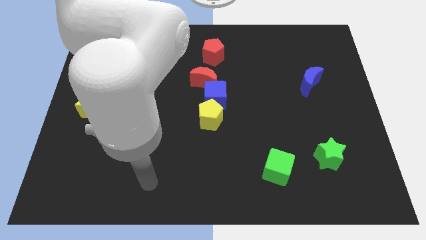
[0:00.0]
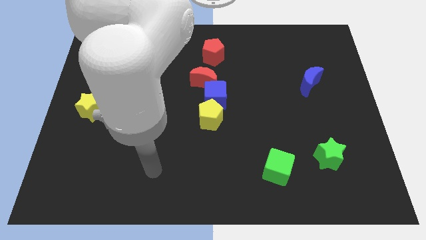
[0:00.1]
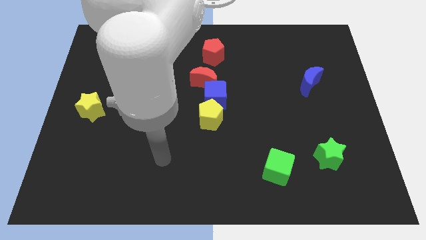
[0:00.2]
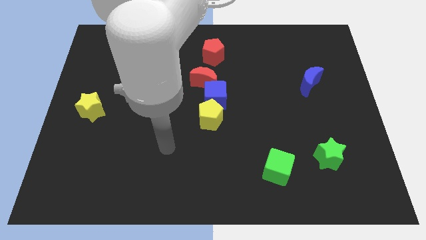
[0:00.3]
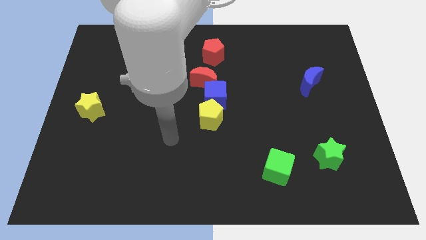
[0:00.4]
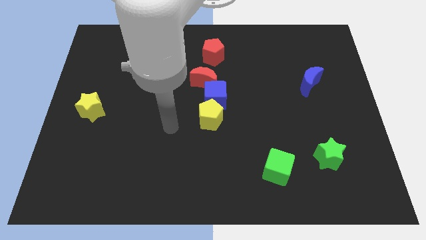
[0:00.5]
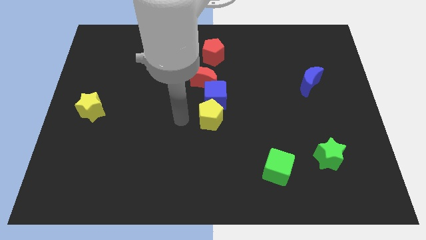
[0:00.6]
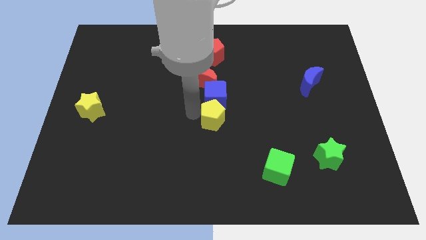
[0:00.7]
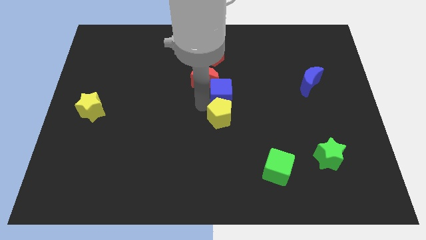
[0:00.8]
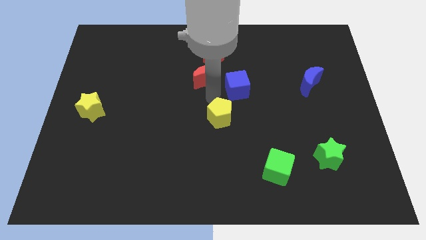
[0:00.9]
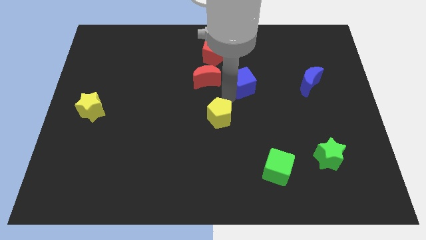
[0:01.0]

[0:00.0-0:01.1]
separate the yellow pentagon from the blue cube

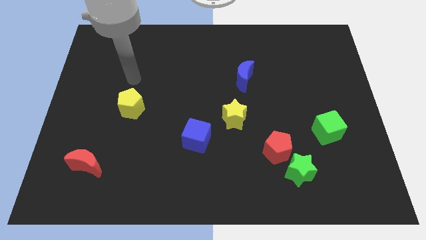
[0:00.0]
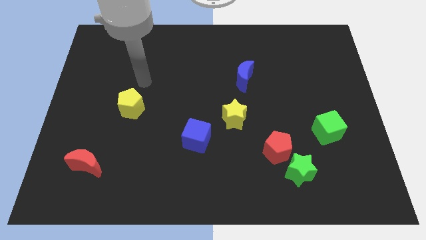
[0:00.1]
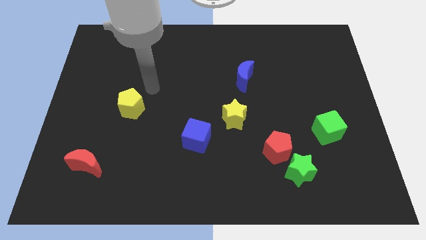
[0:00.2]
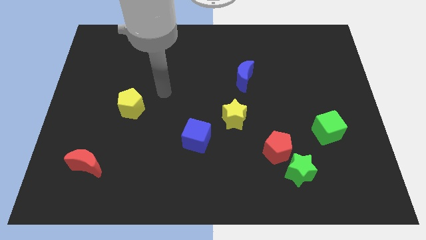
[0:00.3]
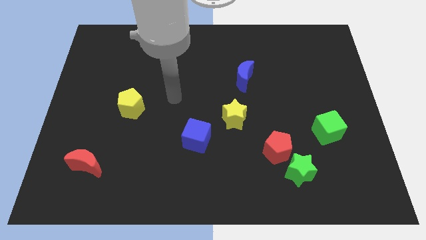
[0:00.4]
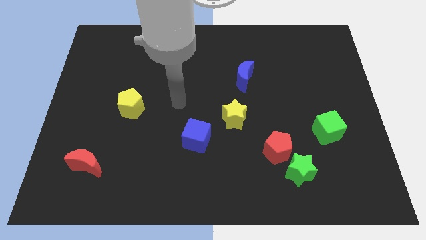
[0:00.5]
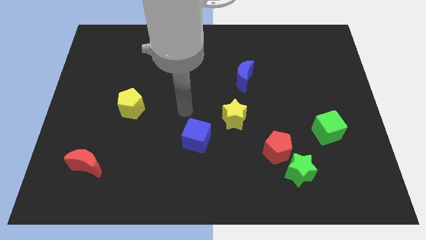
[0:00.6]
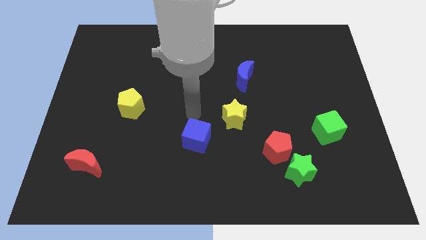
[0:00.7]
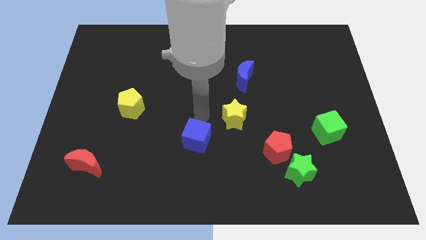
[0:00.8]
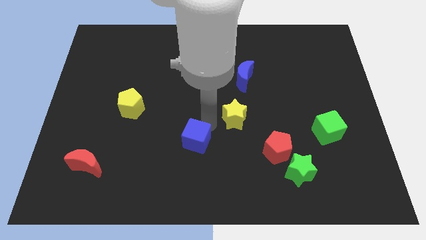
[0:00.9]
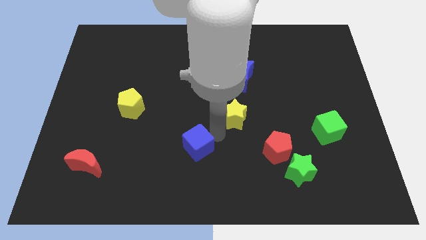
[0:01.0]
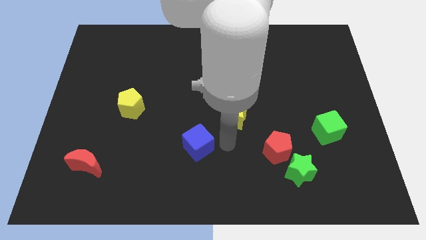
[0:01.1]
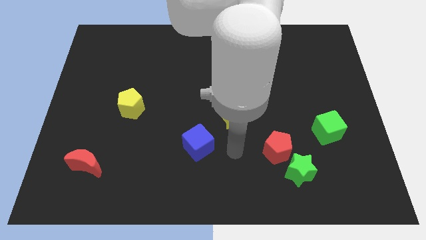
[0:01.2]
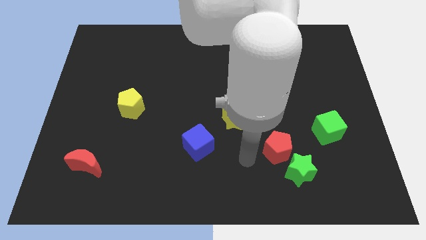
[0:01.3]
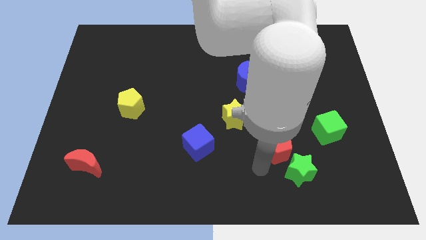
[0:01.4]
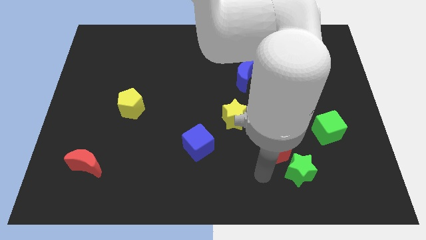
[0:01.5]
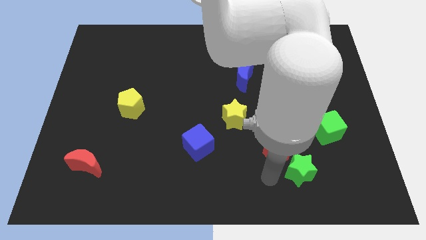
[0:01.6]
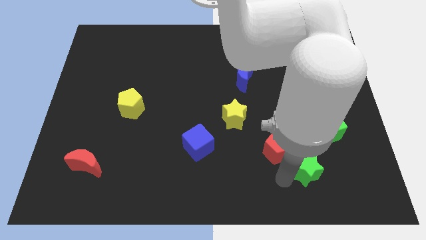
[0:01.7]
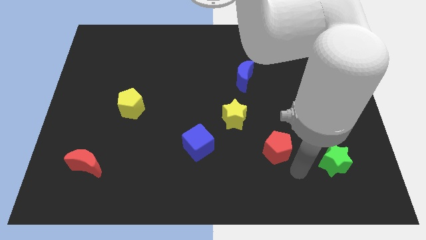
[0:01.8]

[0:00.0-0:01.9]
separate the red pentagon from the green star

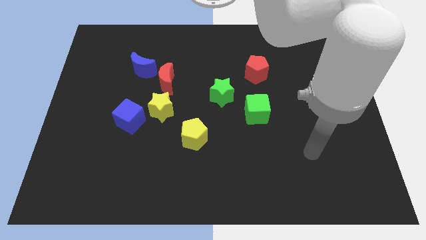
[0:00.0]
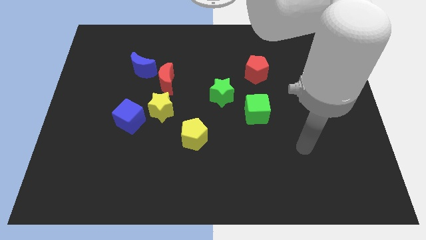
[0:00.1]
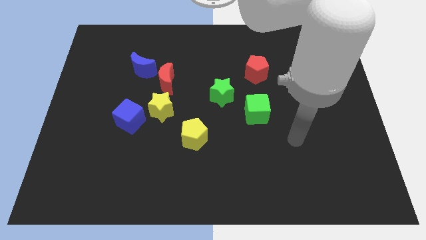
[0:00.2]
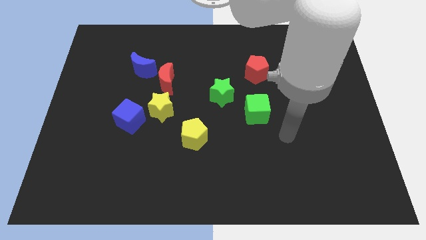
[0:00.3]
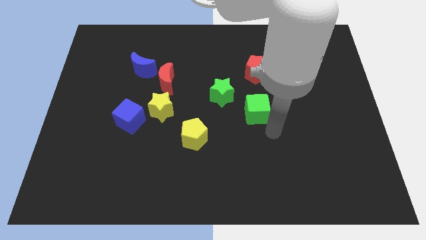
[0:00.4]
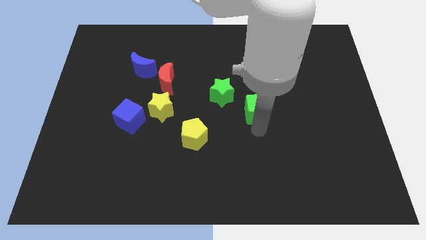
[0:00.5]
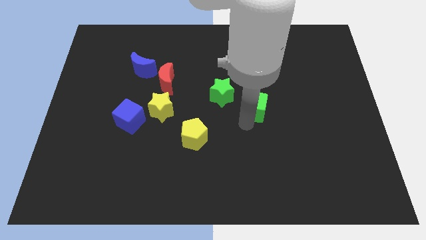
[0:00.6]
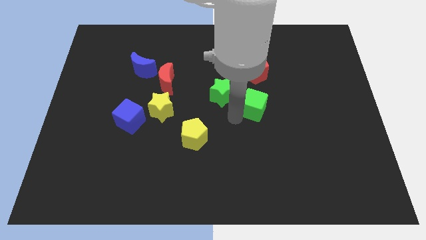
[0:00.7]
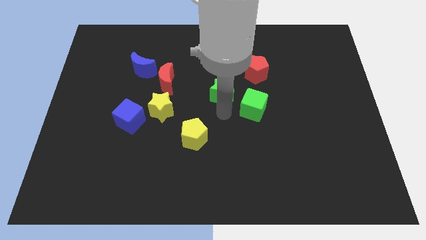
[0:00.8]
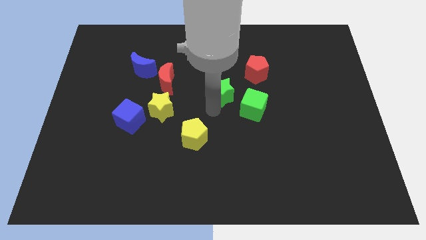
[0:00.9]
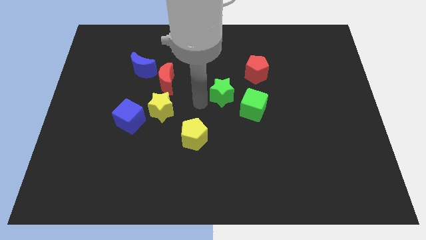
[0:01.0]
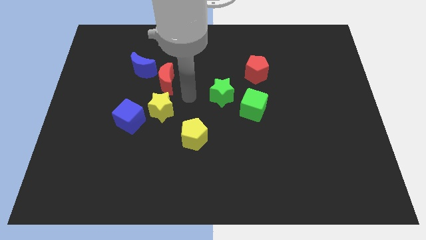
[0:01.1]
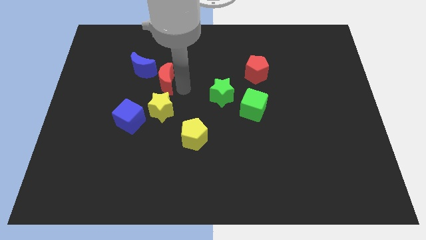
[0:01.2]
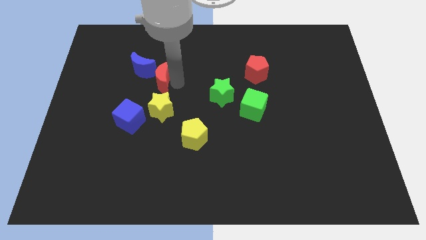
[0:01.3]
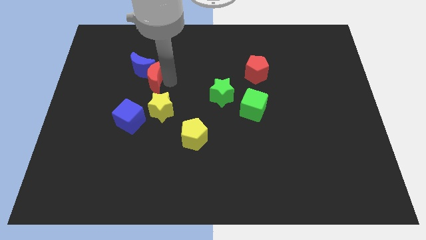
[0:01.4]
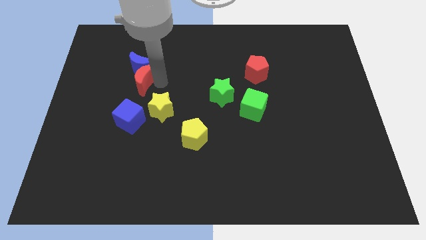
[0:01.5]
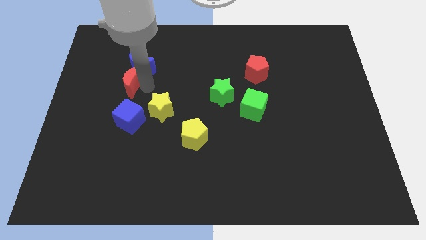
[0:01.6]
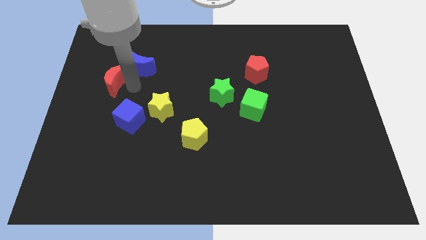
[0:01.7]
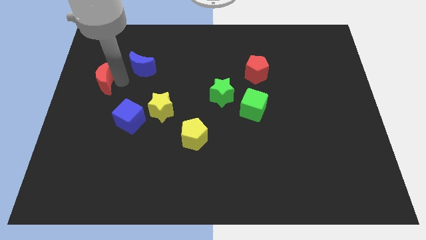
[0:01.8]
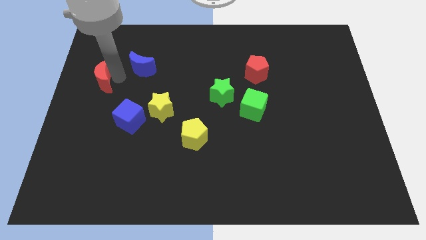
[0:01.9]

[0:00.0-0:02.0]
pull the blue moon apart from the red moon

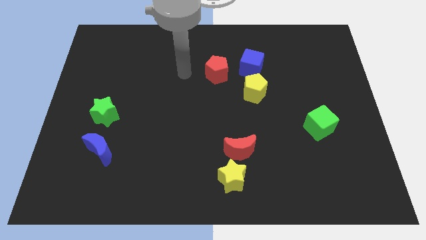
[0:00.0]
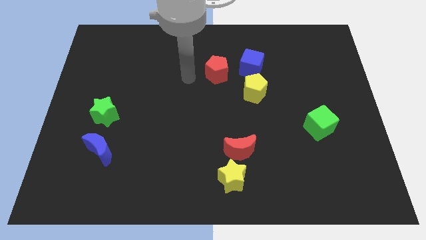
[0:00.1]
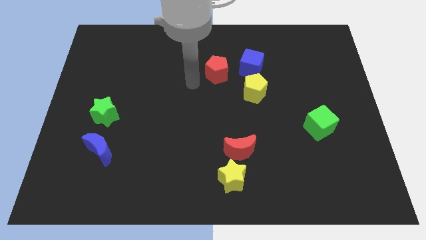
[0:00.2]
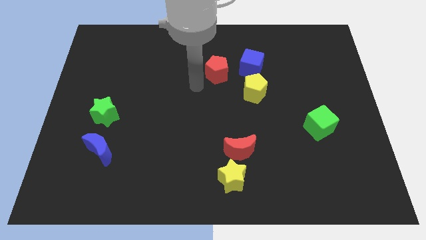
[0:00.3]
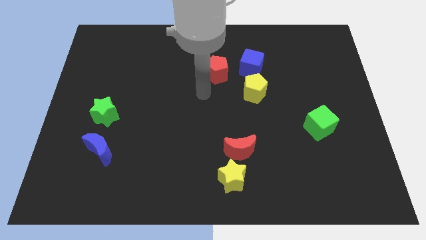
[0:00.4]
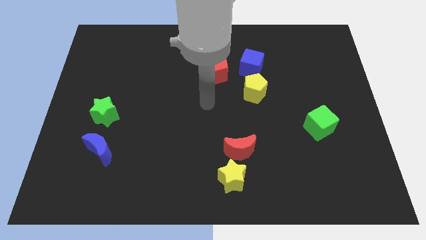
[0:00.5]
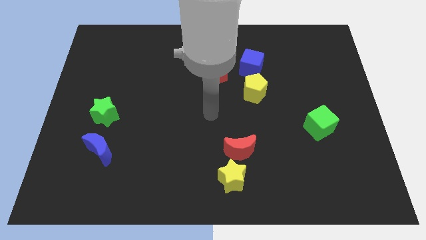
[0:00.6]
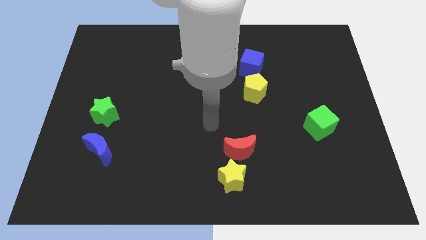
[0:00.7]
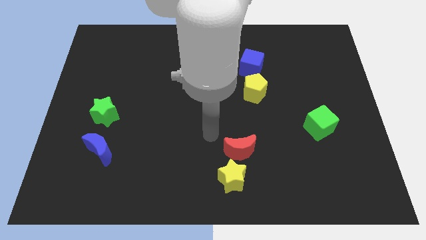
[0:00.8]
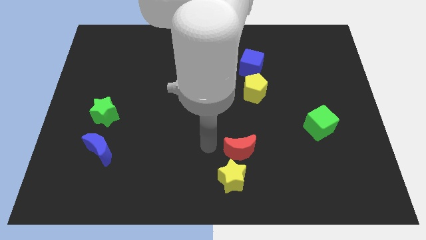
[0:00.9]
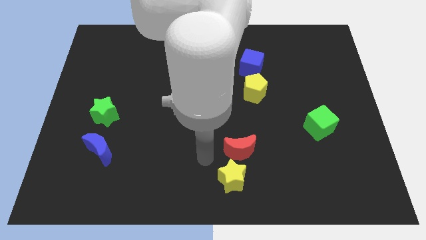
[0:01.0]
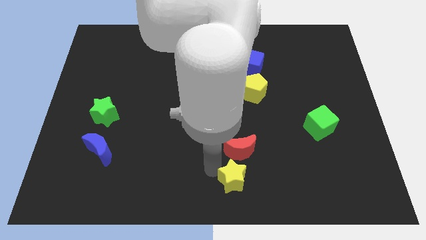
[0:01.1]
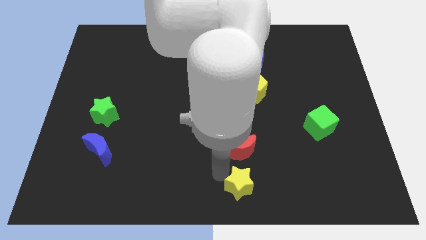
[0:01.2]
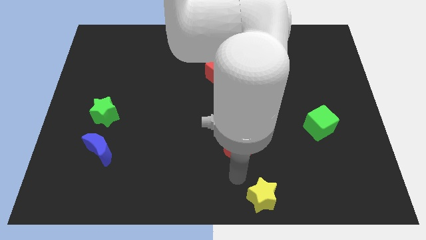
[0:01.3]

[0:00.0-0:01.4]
move the red moon away from the yellow star

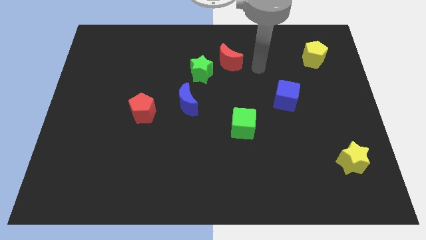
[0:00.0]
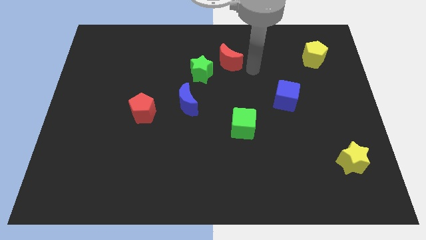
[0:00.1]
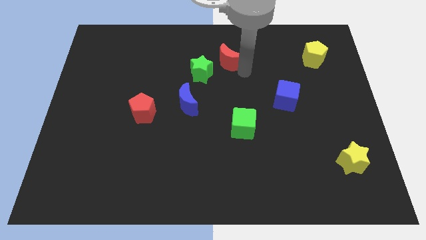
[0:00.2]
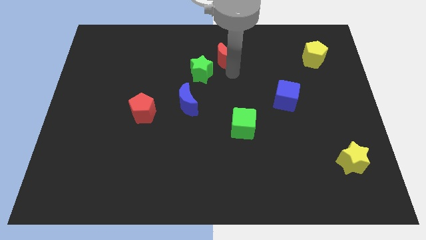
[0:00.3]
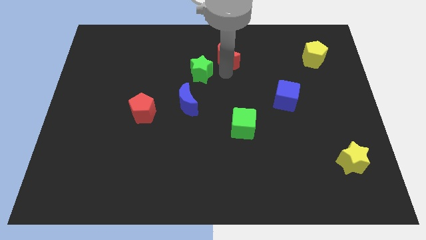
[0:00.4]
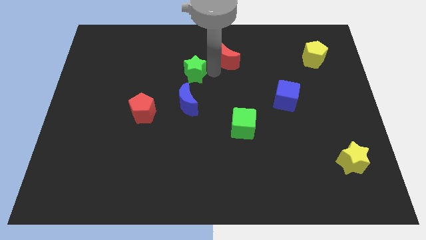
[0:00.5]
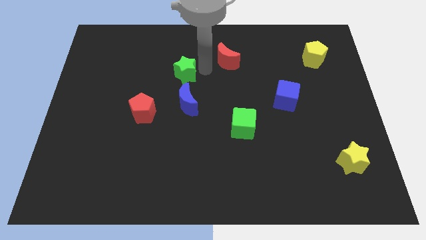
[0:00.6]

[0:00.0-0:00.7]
separate the red moon from the green star

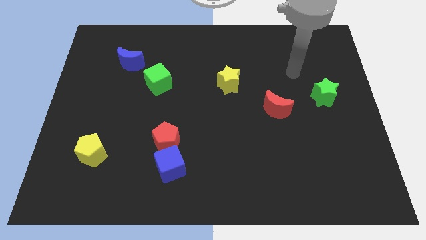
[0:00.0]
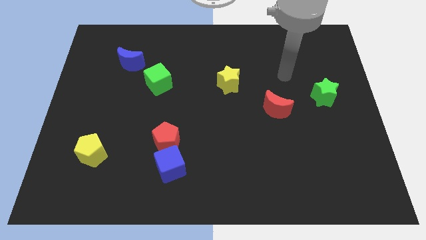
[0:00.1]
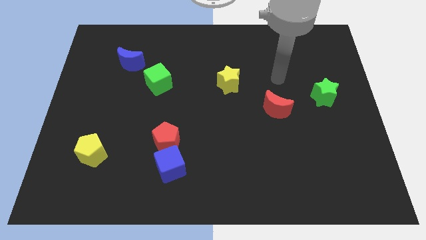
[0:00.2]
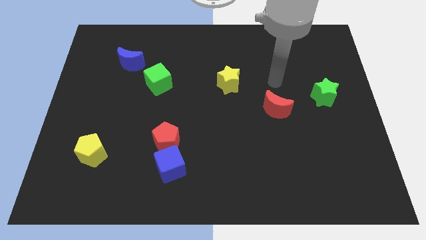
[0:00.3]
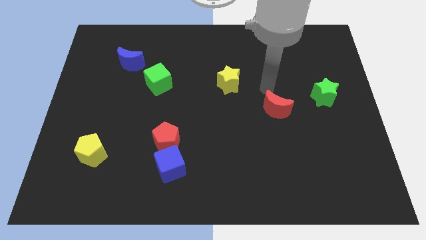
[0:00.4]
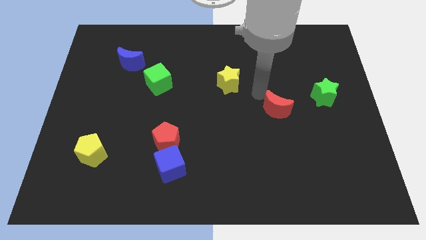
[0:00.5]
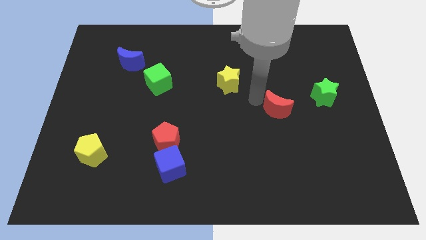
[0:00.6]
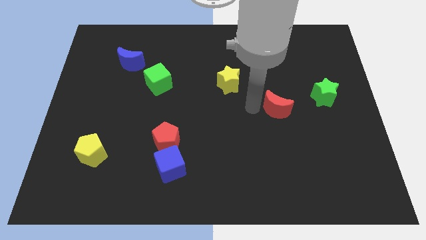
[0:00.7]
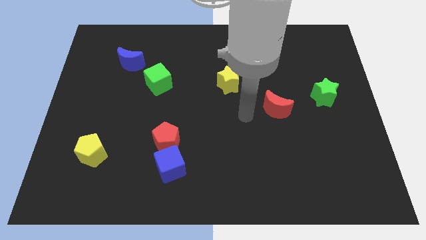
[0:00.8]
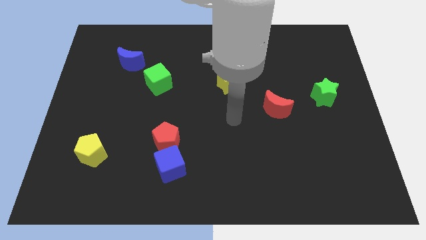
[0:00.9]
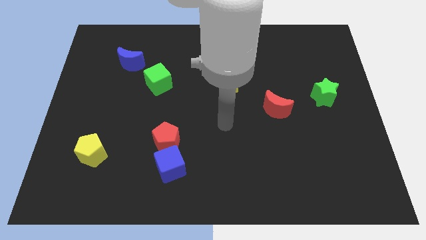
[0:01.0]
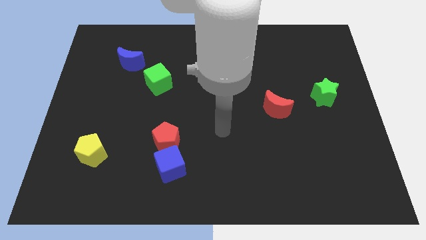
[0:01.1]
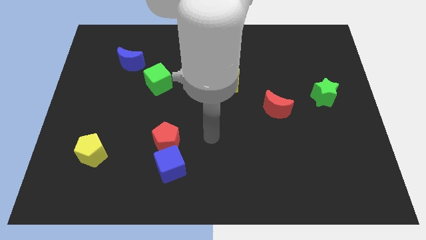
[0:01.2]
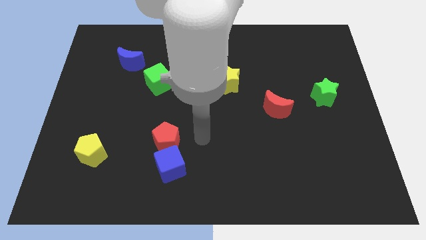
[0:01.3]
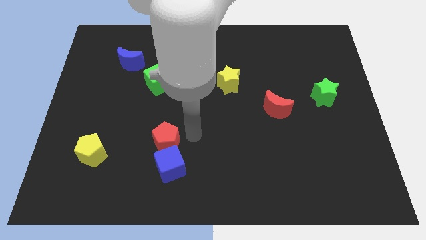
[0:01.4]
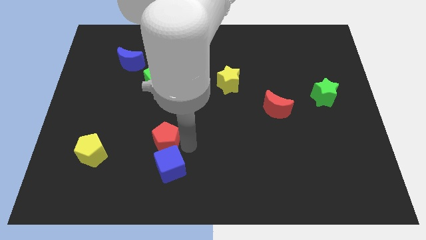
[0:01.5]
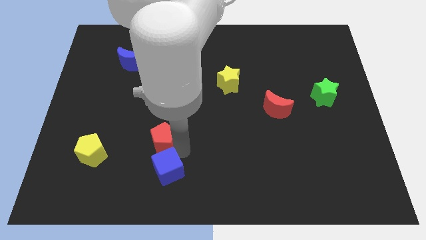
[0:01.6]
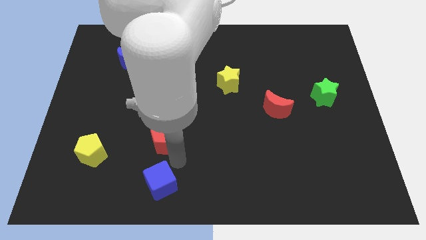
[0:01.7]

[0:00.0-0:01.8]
pull the red pentagon apart from the blue cube

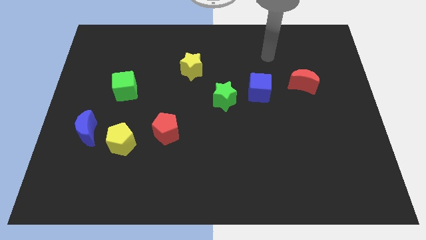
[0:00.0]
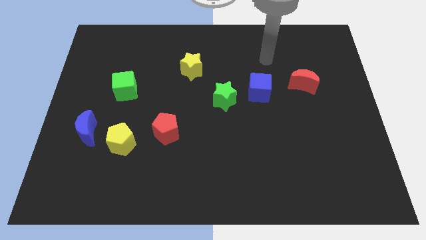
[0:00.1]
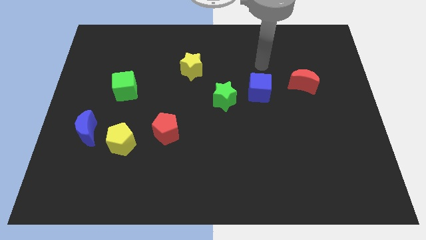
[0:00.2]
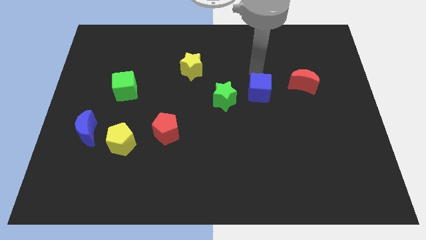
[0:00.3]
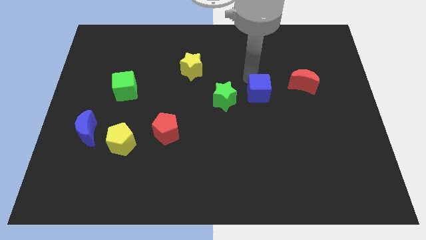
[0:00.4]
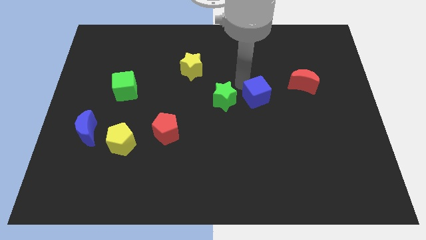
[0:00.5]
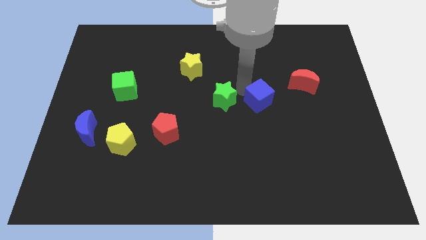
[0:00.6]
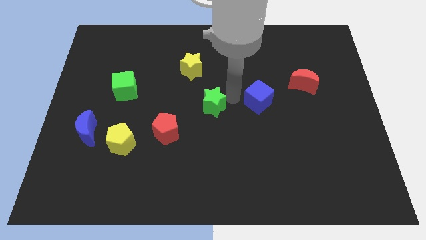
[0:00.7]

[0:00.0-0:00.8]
pull the blue cube apart from the green star
